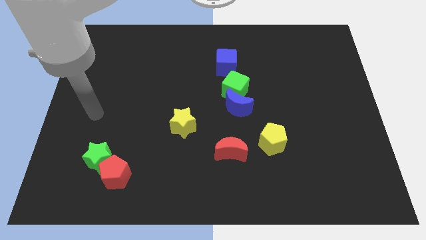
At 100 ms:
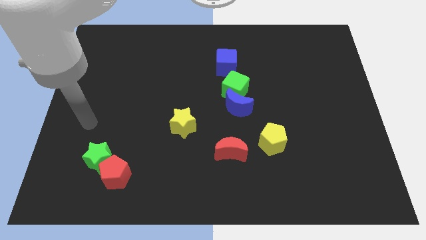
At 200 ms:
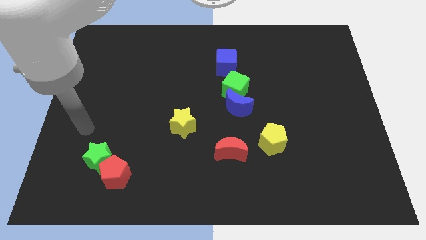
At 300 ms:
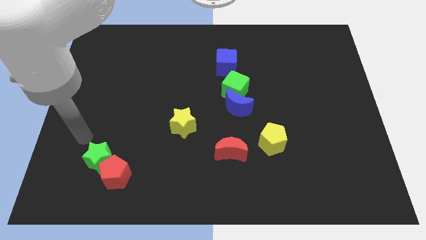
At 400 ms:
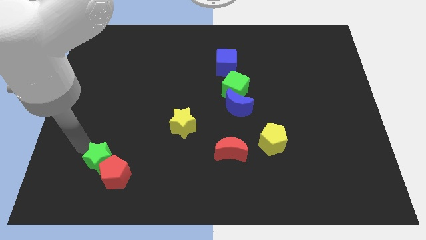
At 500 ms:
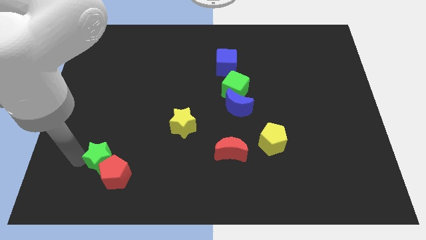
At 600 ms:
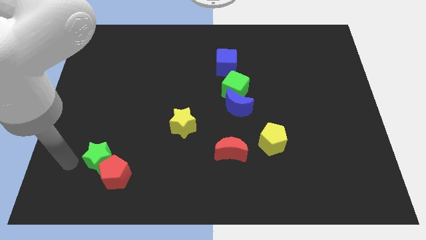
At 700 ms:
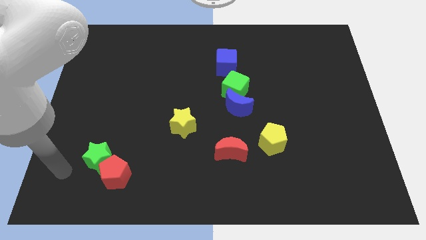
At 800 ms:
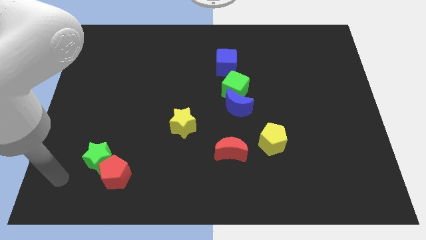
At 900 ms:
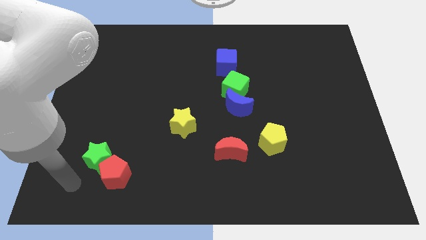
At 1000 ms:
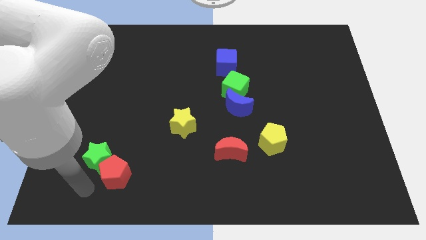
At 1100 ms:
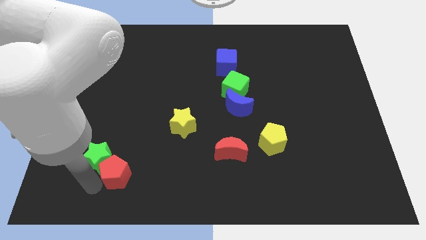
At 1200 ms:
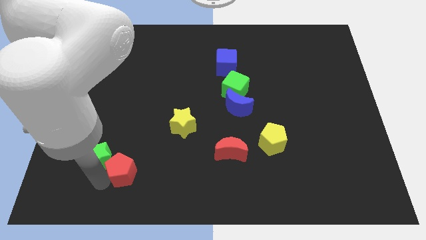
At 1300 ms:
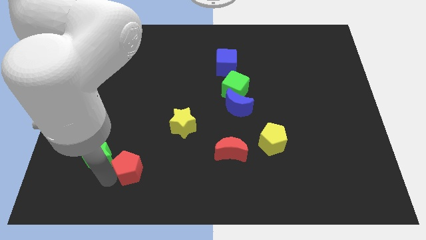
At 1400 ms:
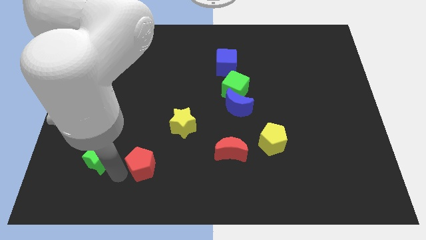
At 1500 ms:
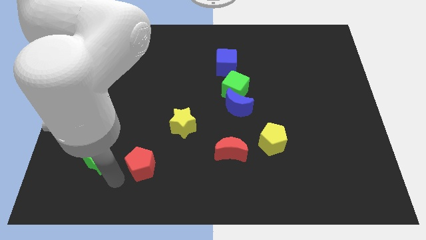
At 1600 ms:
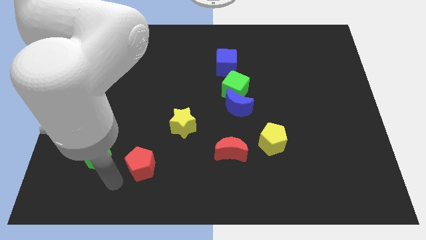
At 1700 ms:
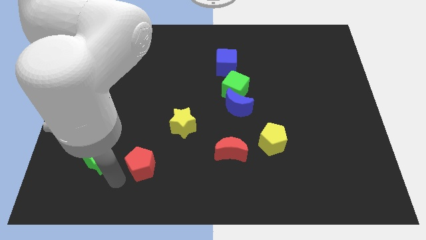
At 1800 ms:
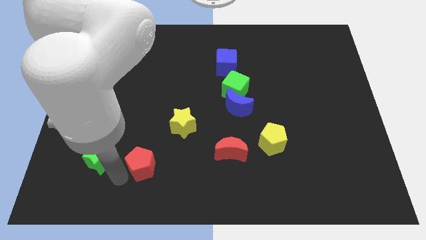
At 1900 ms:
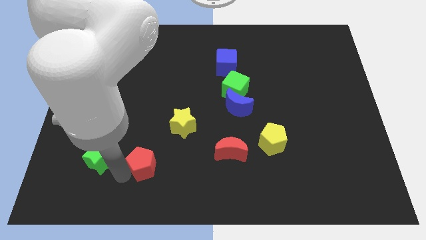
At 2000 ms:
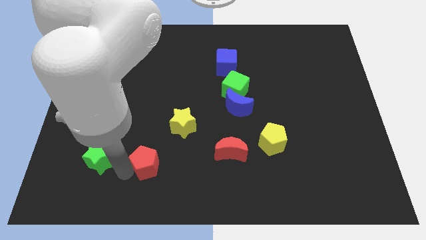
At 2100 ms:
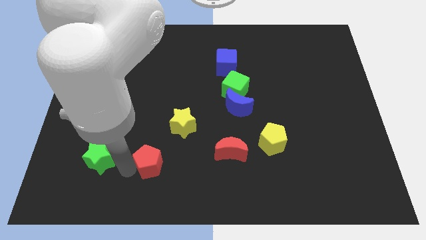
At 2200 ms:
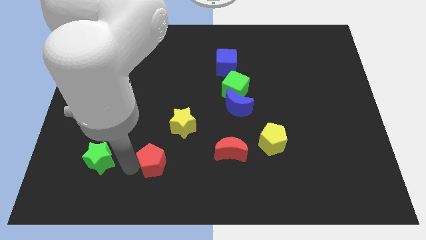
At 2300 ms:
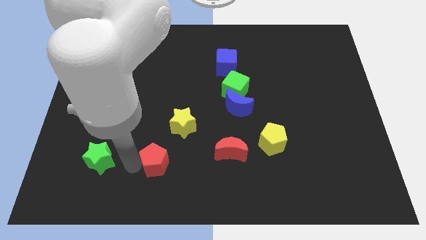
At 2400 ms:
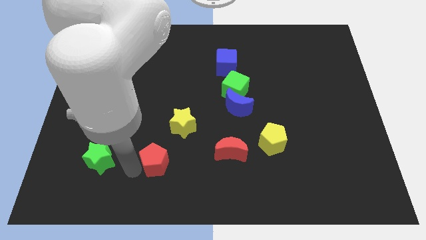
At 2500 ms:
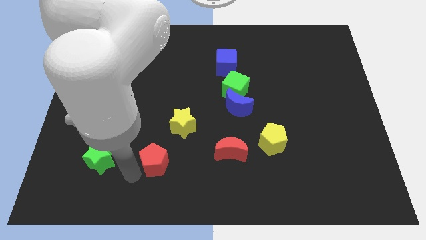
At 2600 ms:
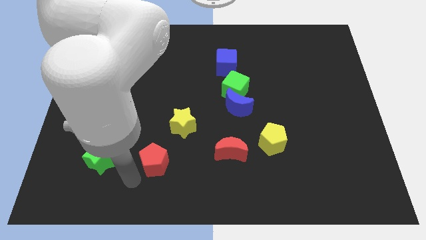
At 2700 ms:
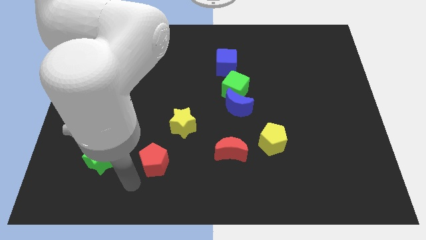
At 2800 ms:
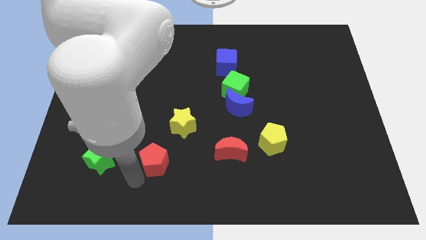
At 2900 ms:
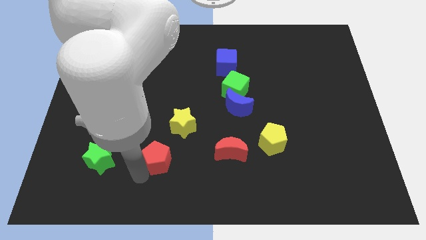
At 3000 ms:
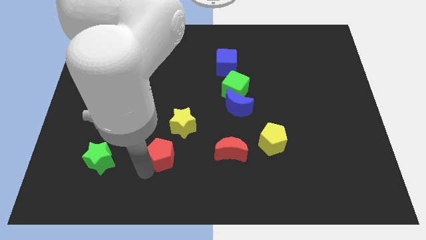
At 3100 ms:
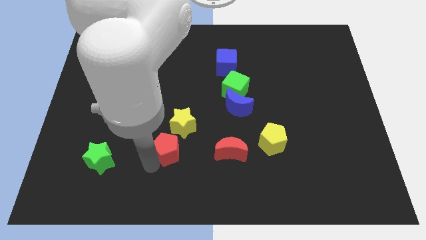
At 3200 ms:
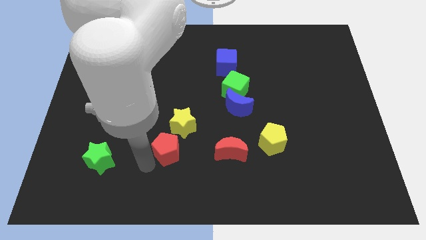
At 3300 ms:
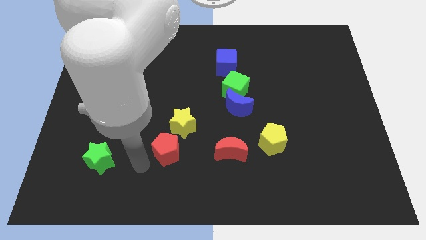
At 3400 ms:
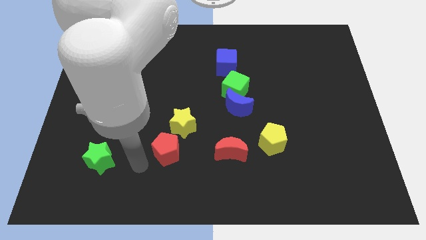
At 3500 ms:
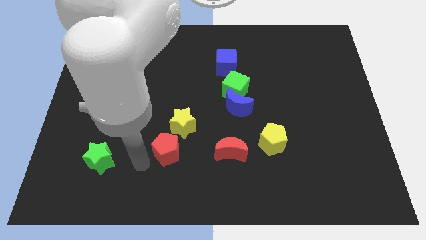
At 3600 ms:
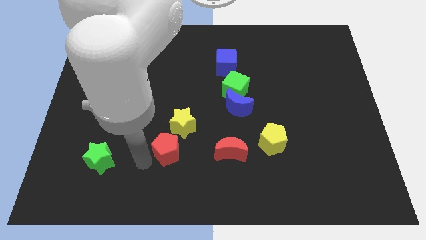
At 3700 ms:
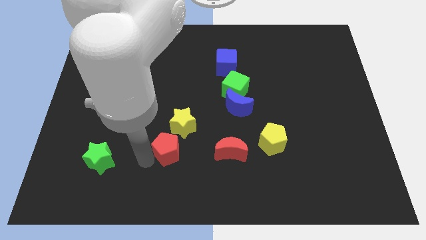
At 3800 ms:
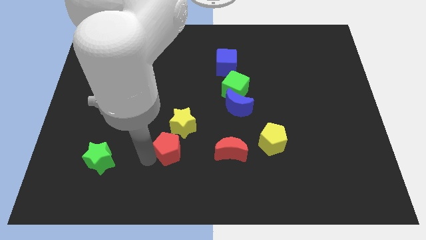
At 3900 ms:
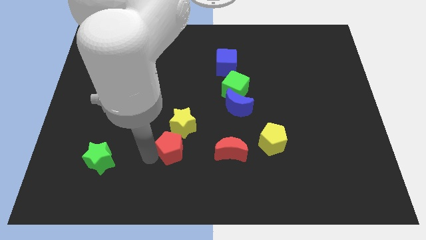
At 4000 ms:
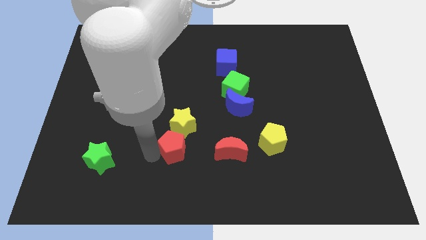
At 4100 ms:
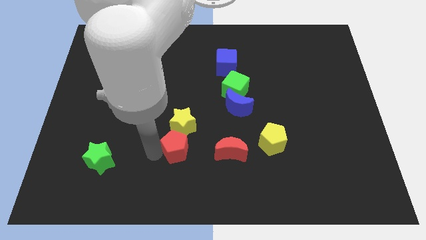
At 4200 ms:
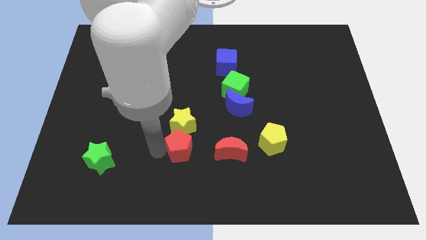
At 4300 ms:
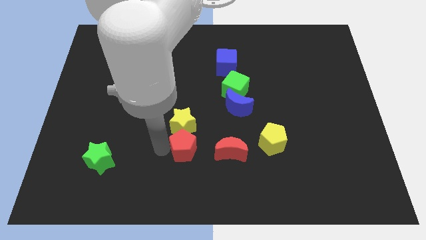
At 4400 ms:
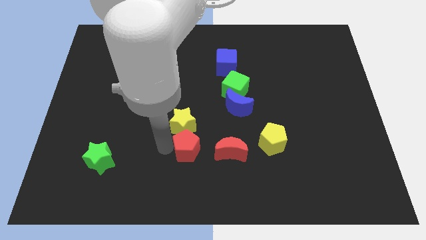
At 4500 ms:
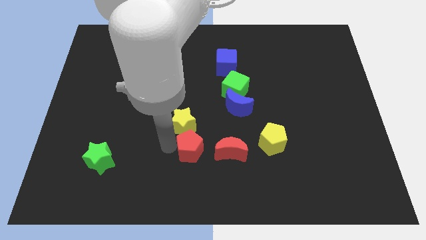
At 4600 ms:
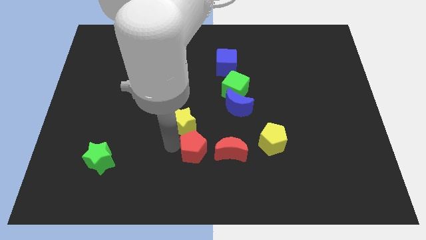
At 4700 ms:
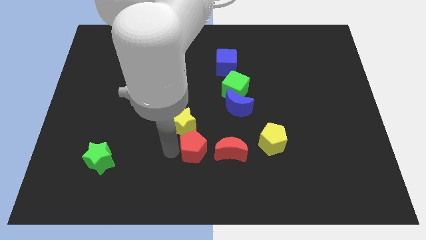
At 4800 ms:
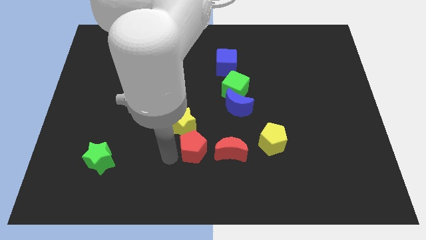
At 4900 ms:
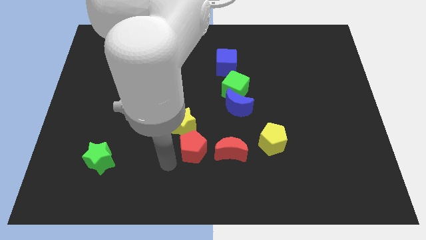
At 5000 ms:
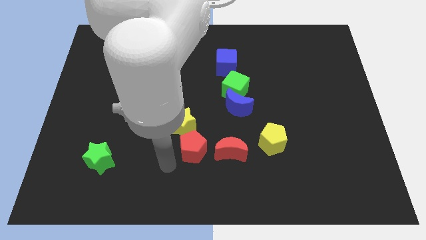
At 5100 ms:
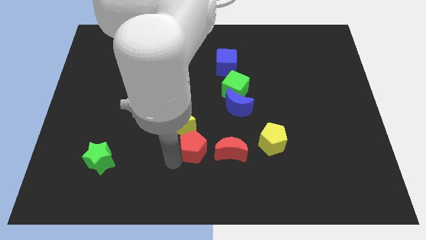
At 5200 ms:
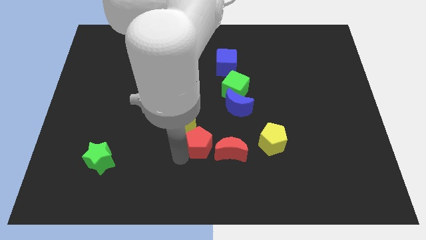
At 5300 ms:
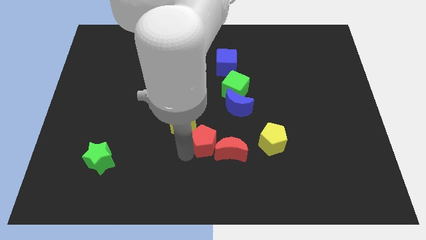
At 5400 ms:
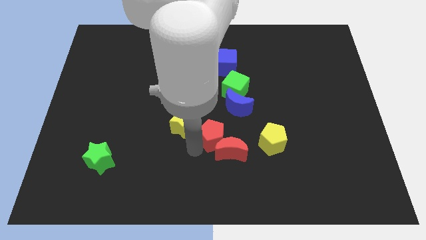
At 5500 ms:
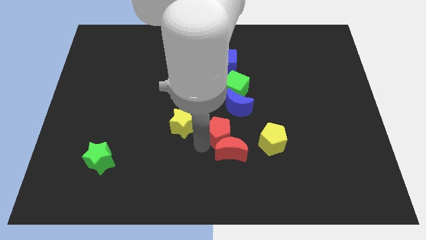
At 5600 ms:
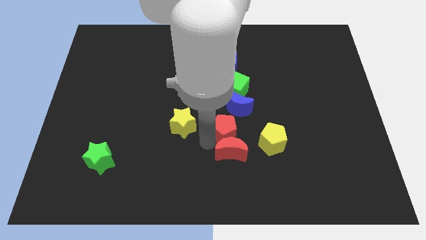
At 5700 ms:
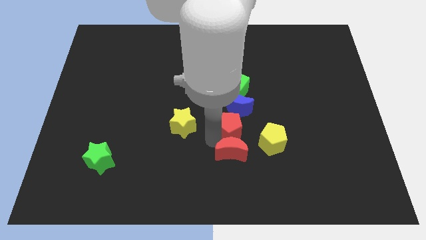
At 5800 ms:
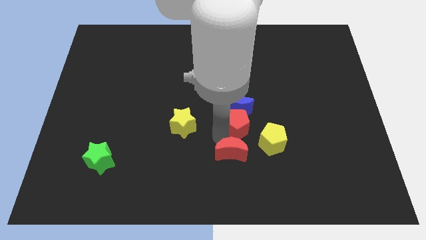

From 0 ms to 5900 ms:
move the red pentagon next to the blue moon
